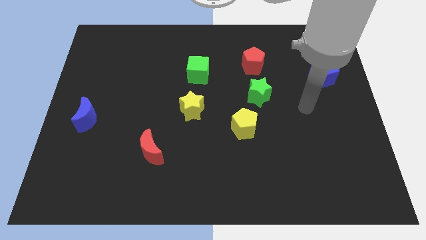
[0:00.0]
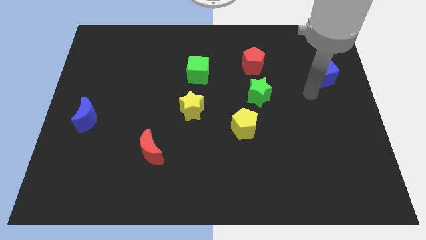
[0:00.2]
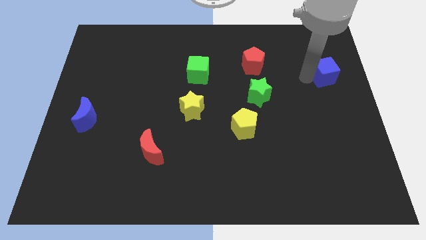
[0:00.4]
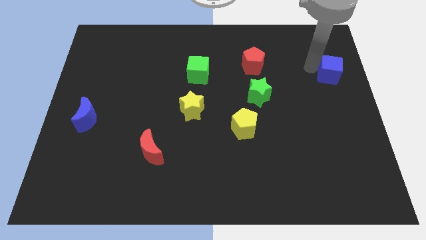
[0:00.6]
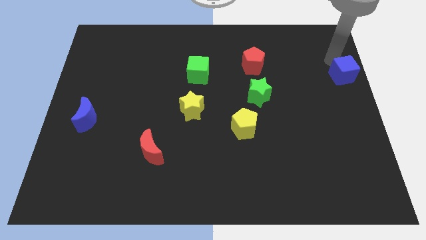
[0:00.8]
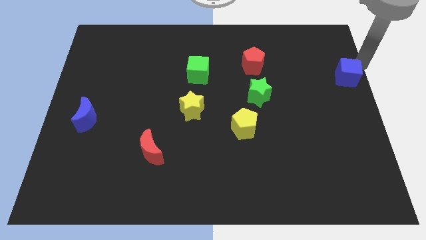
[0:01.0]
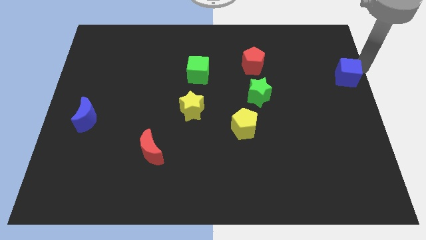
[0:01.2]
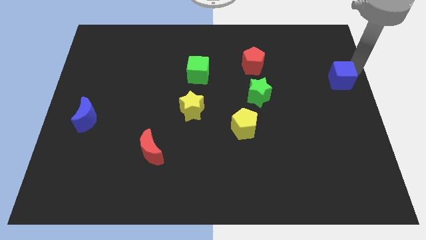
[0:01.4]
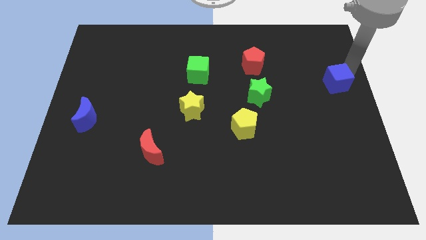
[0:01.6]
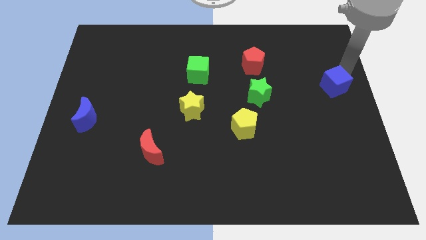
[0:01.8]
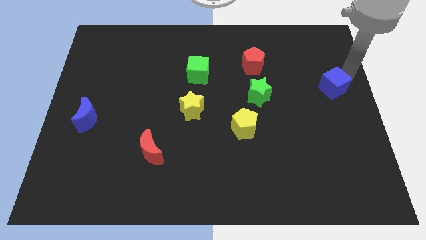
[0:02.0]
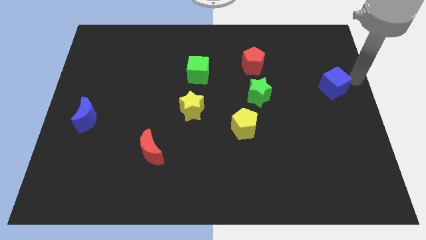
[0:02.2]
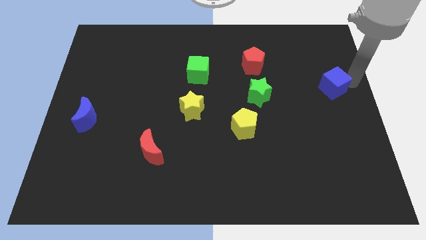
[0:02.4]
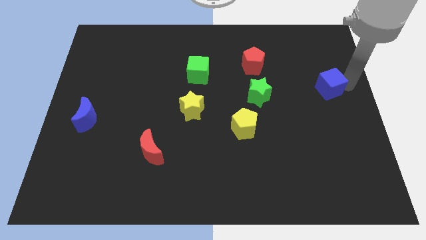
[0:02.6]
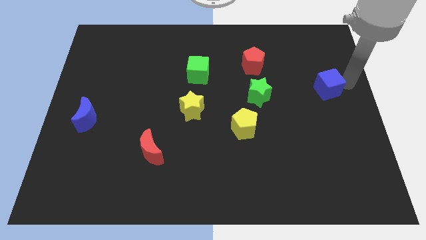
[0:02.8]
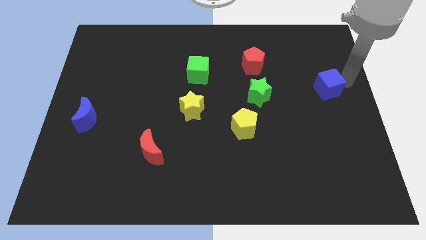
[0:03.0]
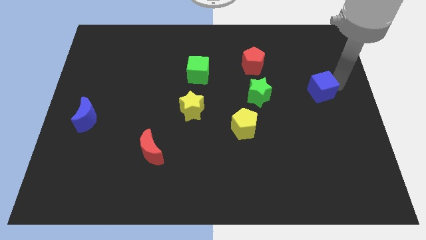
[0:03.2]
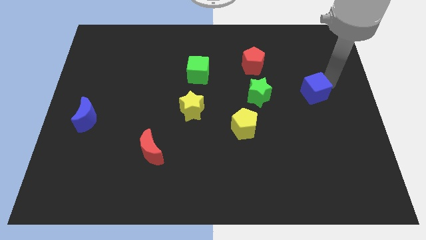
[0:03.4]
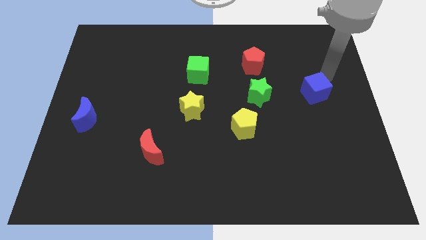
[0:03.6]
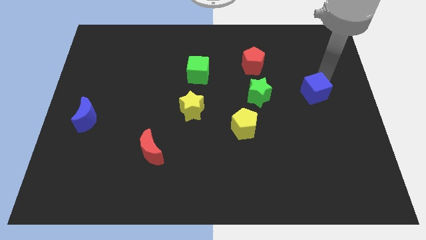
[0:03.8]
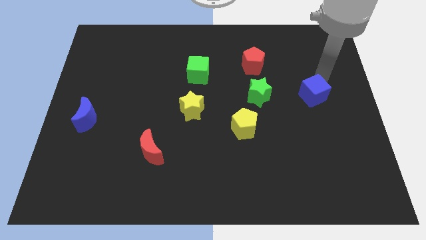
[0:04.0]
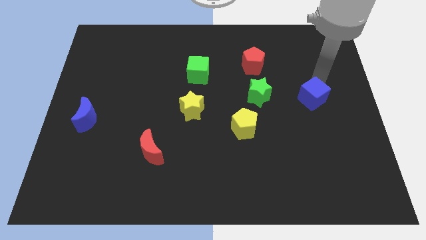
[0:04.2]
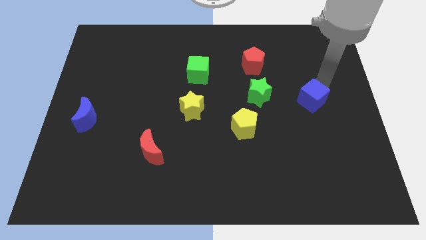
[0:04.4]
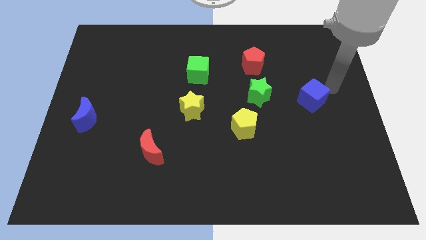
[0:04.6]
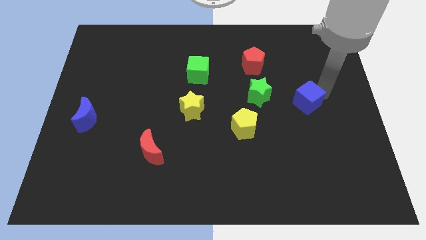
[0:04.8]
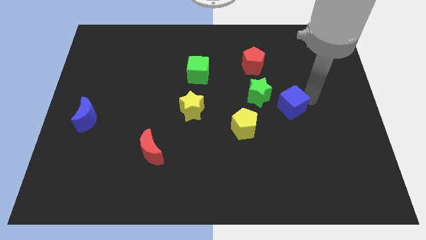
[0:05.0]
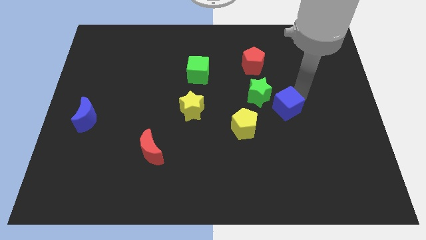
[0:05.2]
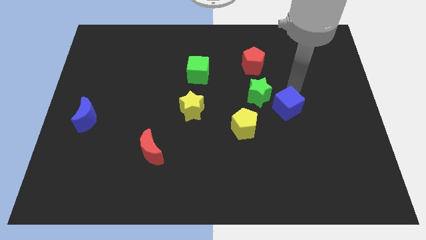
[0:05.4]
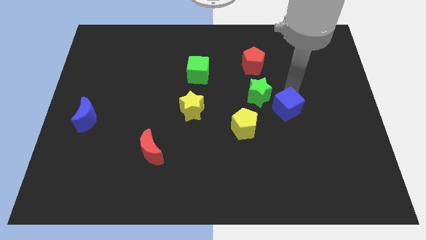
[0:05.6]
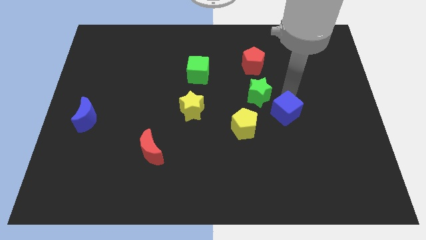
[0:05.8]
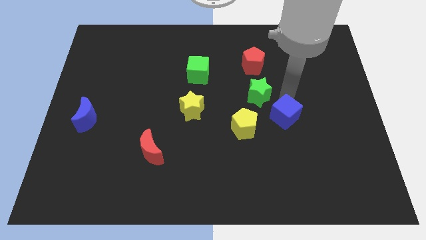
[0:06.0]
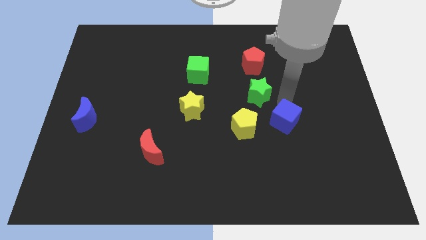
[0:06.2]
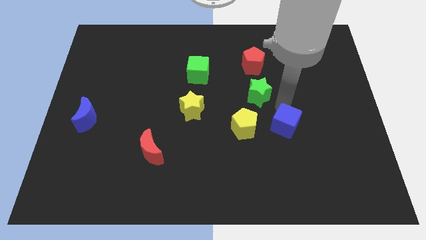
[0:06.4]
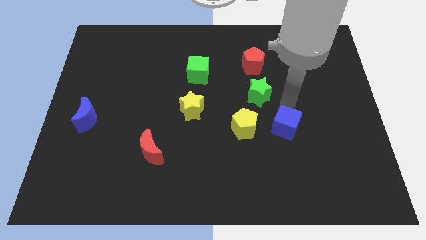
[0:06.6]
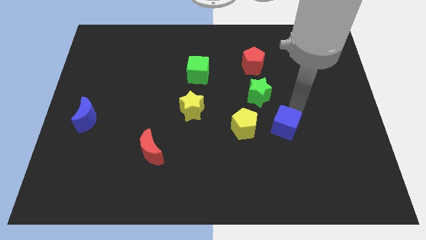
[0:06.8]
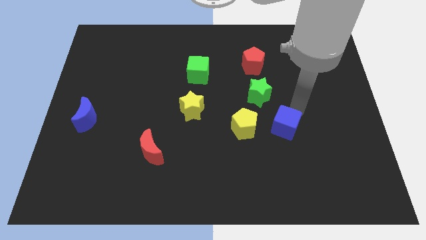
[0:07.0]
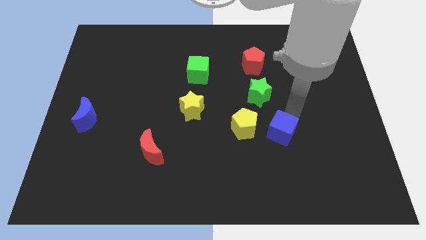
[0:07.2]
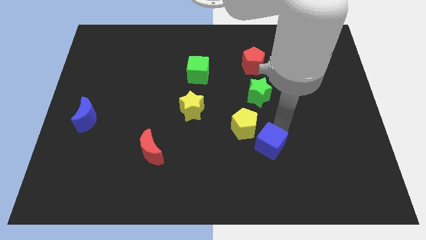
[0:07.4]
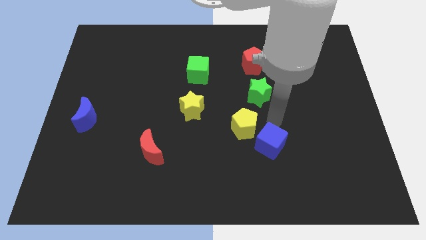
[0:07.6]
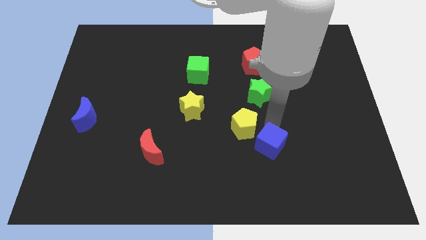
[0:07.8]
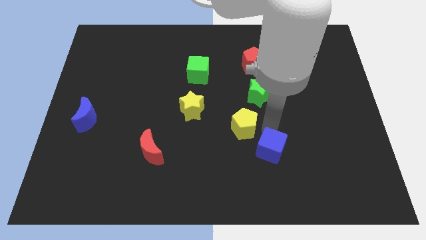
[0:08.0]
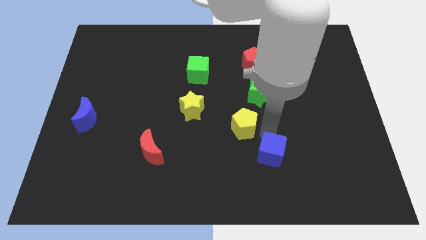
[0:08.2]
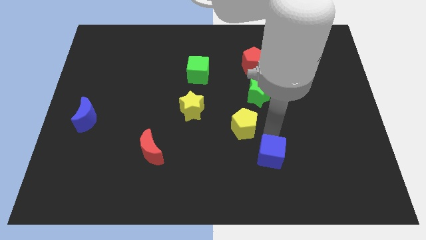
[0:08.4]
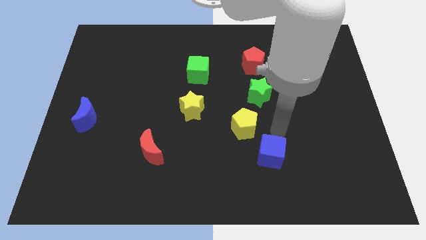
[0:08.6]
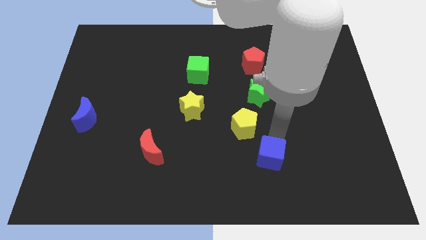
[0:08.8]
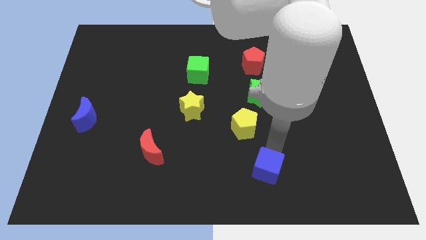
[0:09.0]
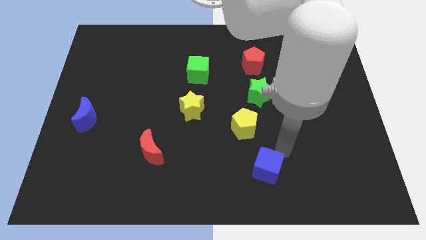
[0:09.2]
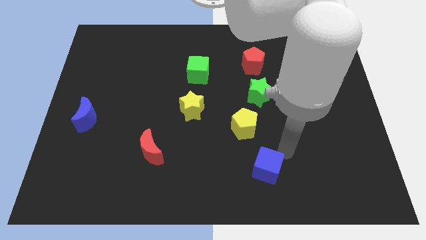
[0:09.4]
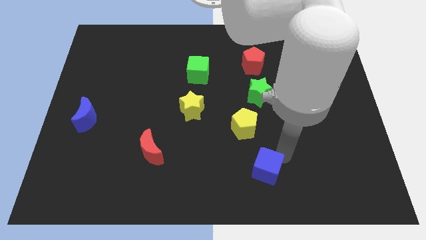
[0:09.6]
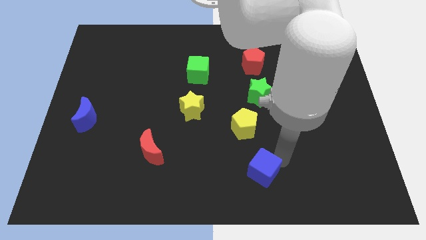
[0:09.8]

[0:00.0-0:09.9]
move the blue cube to the bottom

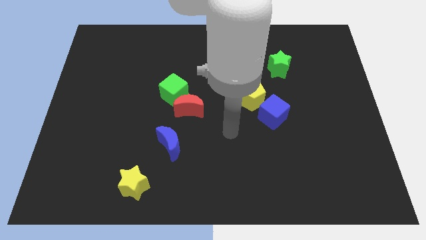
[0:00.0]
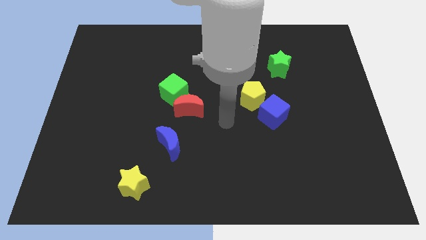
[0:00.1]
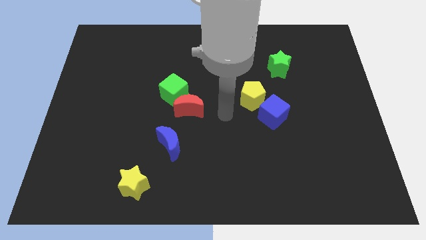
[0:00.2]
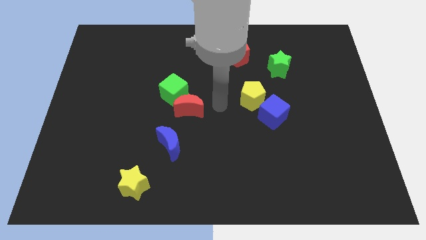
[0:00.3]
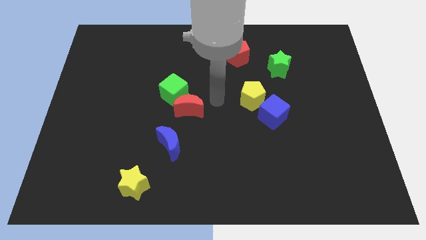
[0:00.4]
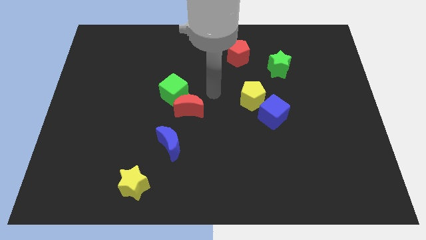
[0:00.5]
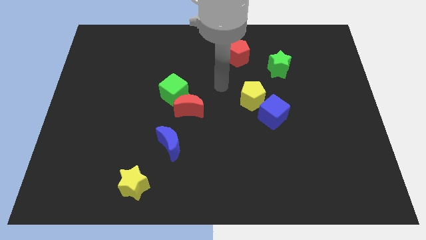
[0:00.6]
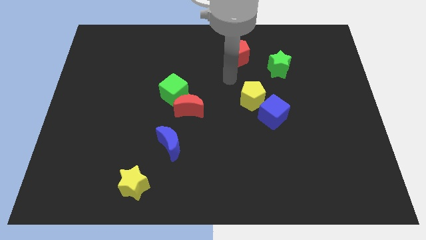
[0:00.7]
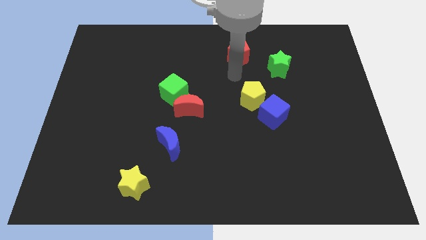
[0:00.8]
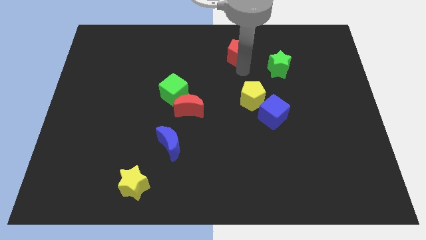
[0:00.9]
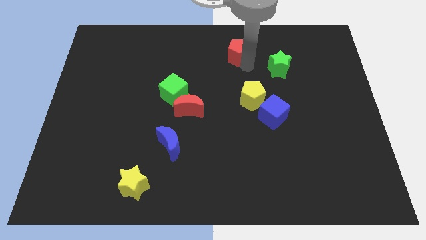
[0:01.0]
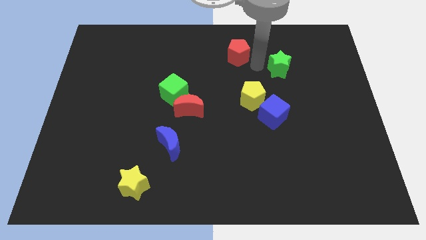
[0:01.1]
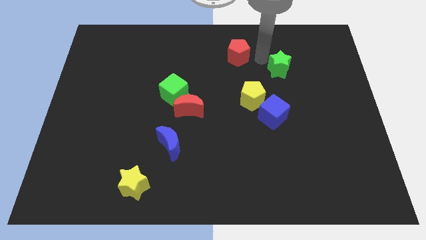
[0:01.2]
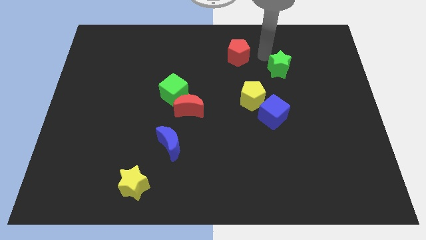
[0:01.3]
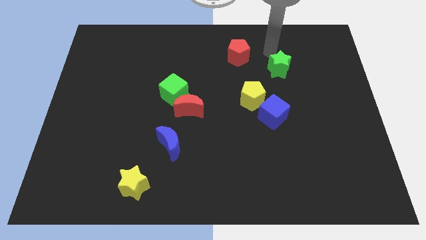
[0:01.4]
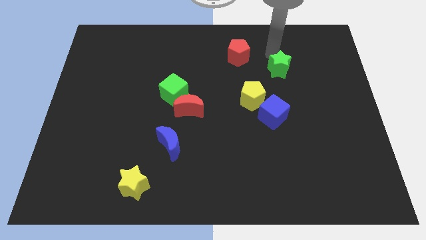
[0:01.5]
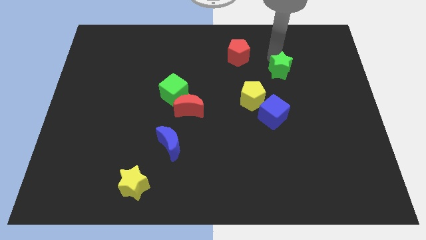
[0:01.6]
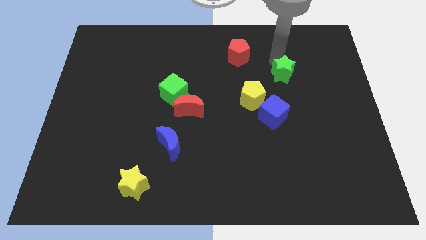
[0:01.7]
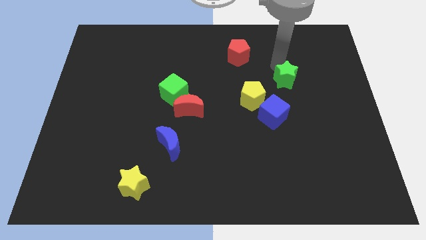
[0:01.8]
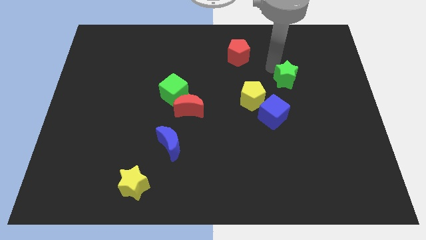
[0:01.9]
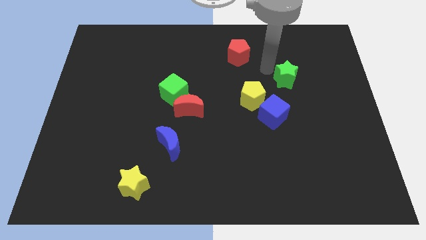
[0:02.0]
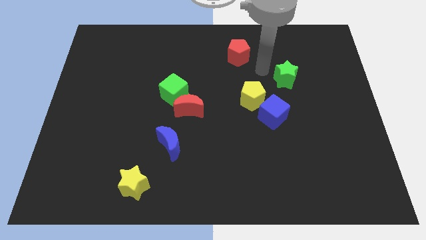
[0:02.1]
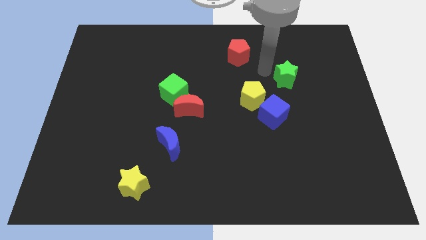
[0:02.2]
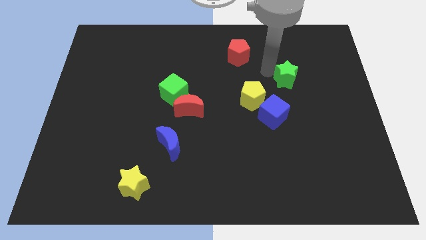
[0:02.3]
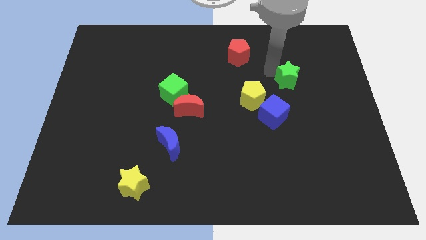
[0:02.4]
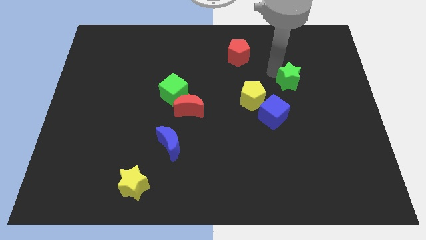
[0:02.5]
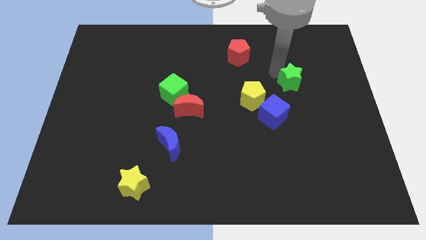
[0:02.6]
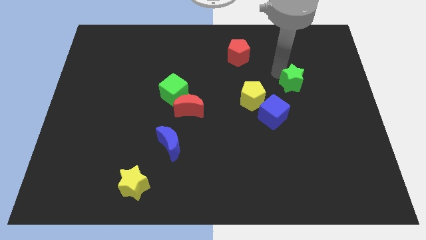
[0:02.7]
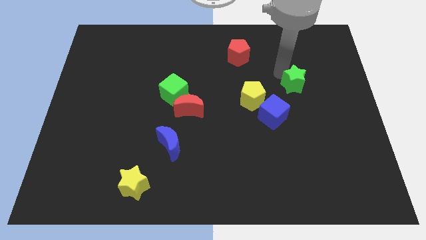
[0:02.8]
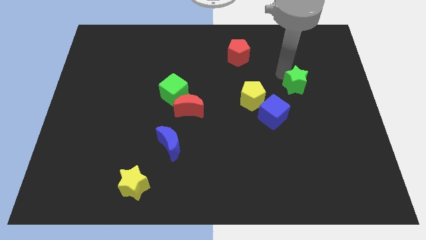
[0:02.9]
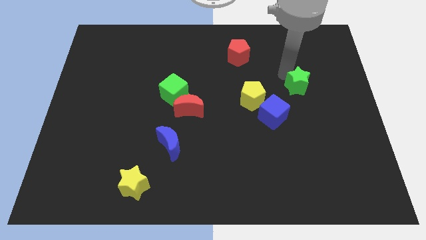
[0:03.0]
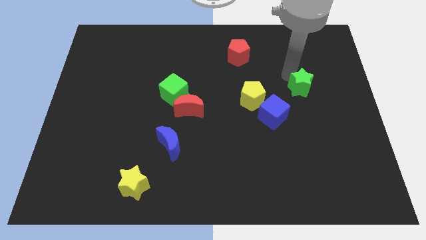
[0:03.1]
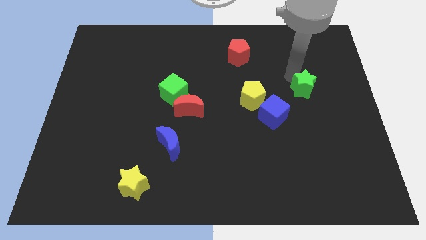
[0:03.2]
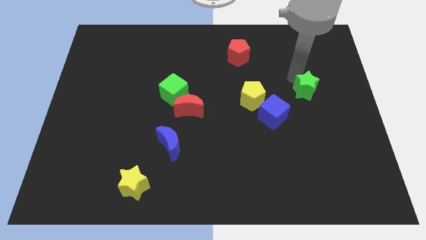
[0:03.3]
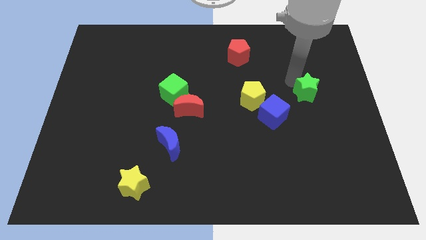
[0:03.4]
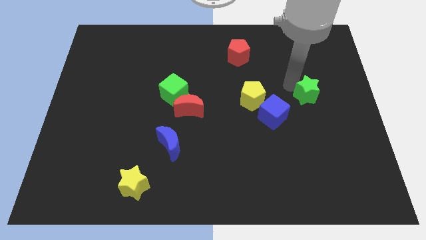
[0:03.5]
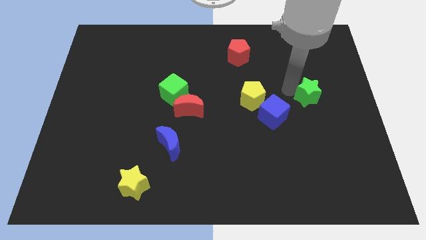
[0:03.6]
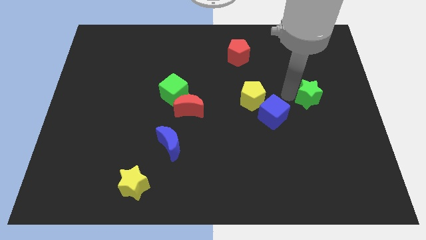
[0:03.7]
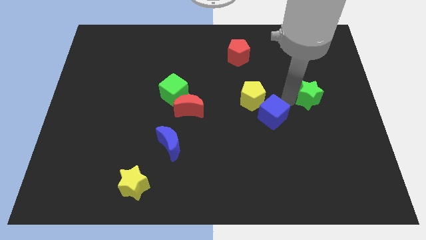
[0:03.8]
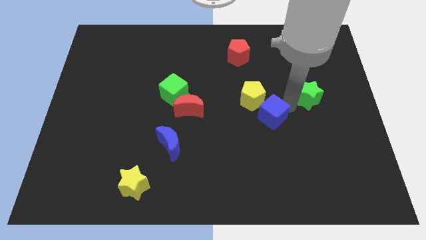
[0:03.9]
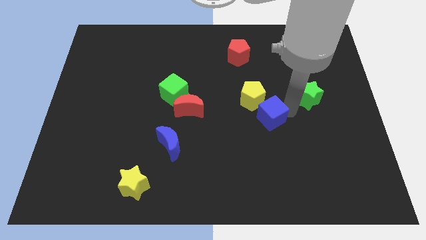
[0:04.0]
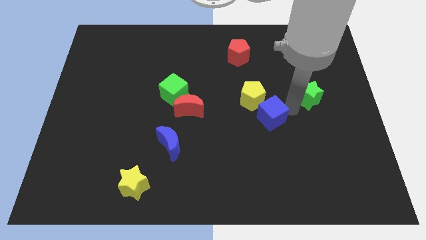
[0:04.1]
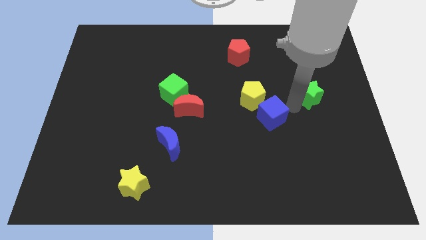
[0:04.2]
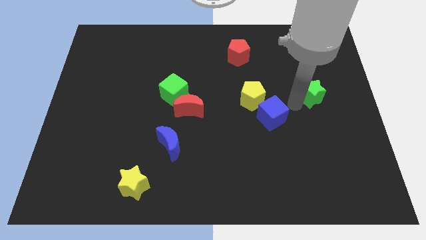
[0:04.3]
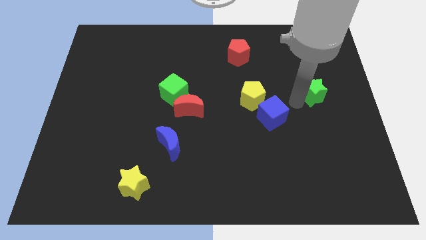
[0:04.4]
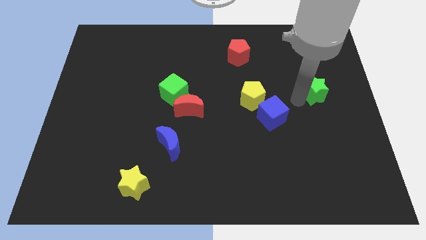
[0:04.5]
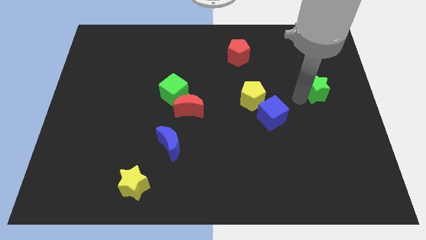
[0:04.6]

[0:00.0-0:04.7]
move the green star to the right side
